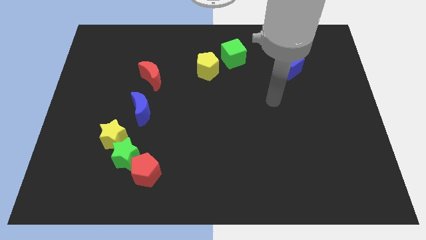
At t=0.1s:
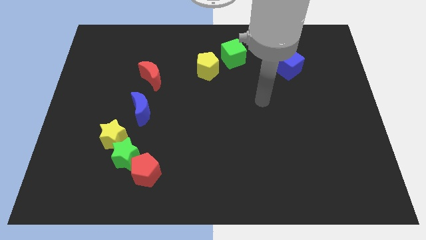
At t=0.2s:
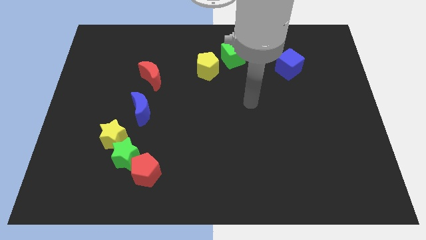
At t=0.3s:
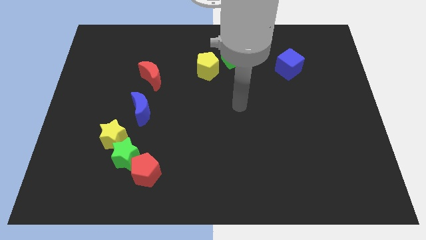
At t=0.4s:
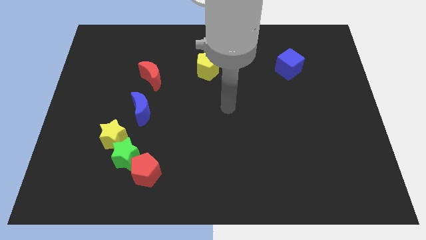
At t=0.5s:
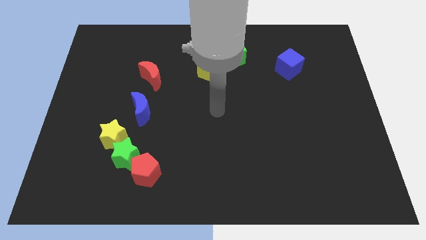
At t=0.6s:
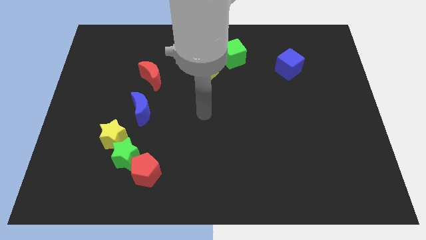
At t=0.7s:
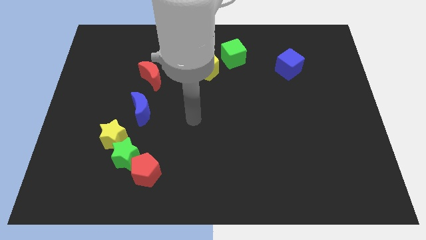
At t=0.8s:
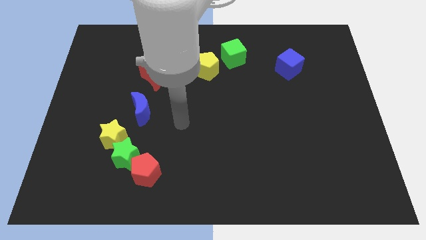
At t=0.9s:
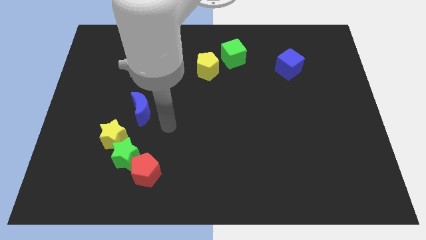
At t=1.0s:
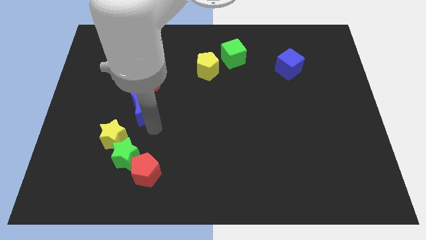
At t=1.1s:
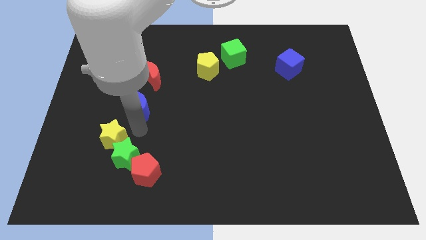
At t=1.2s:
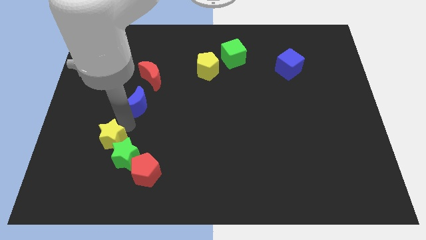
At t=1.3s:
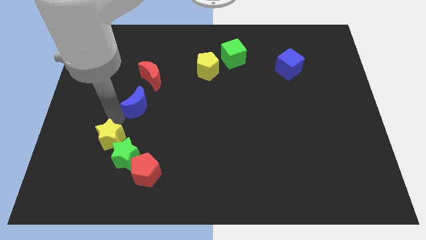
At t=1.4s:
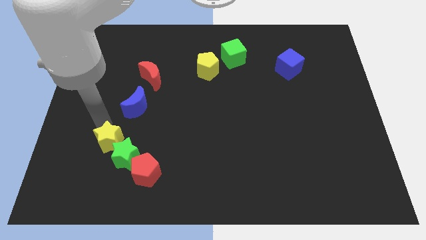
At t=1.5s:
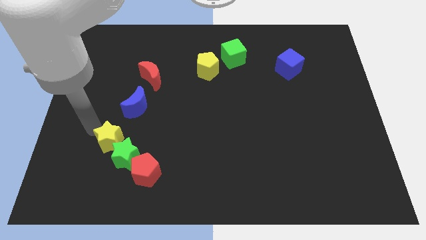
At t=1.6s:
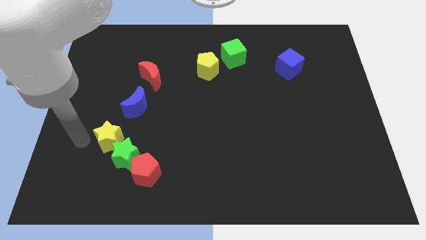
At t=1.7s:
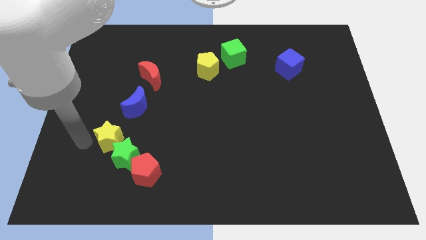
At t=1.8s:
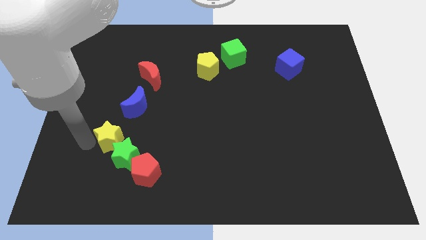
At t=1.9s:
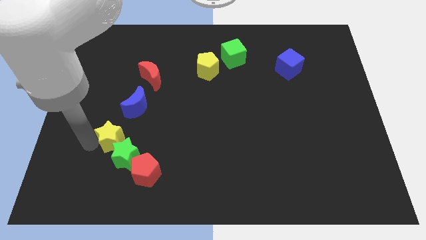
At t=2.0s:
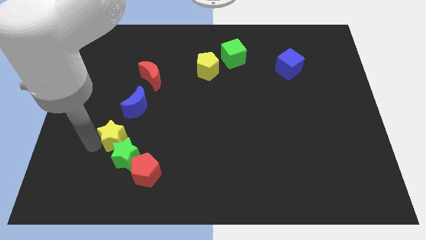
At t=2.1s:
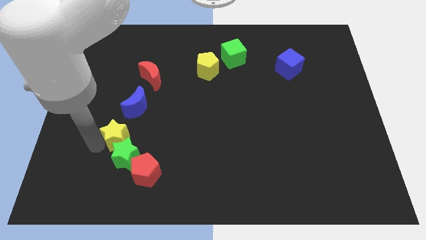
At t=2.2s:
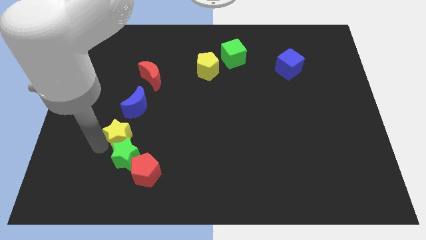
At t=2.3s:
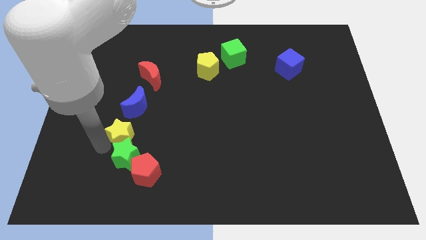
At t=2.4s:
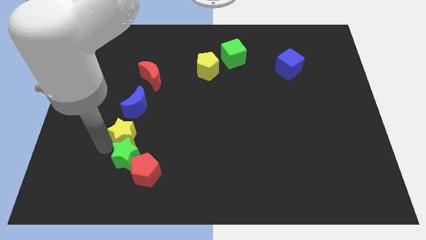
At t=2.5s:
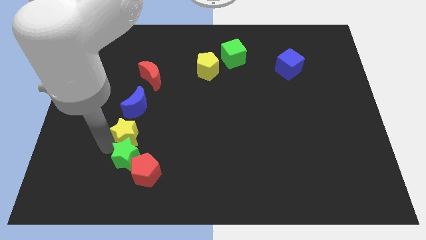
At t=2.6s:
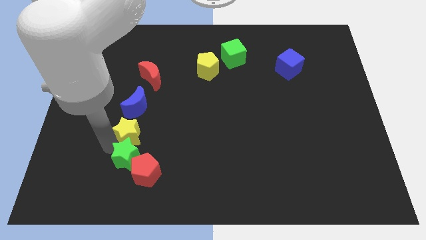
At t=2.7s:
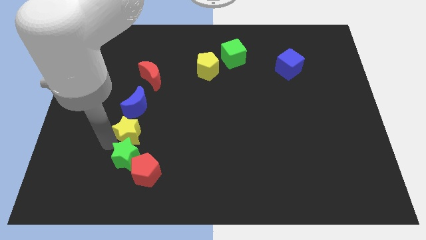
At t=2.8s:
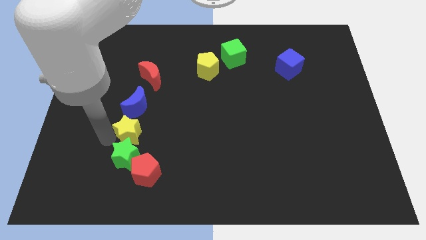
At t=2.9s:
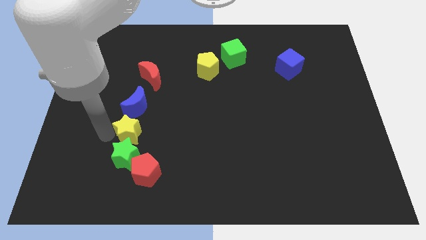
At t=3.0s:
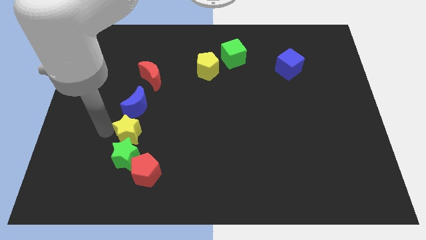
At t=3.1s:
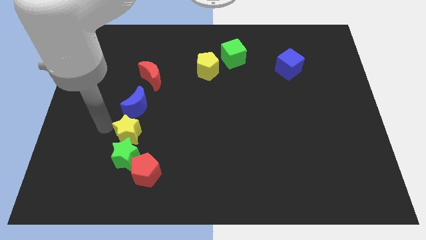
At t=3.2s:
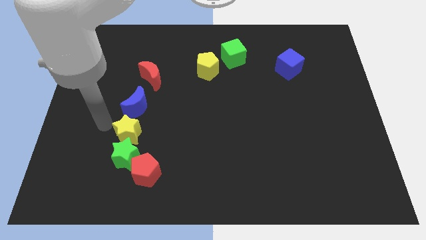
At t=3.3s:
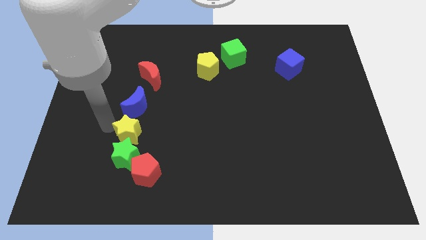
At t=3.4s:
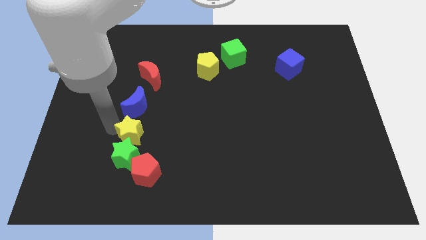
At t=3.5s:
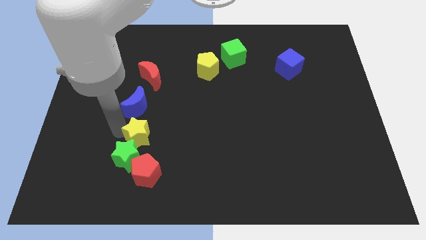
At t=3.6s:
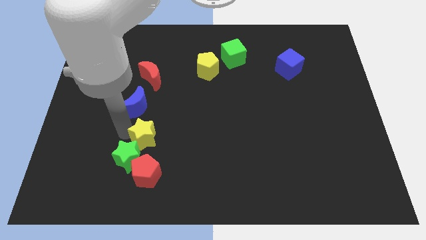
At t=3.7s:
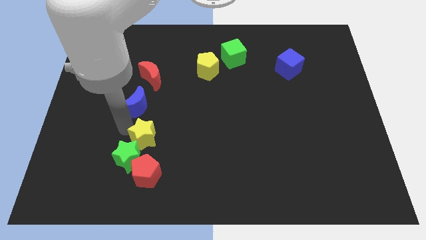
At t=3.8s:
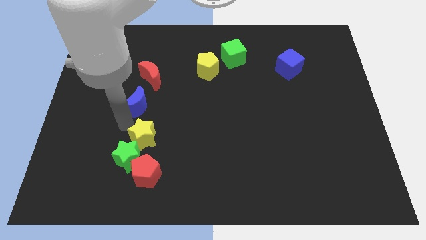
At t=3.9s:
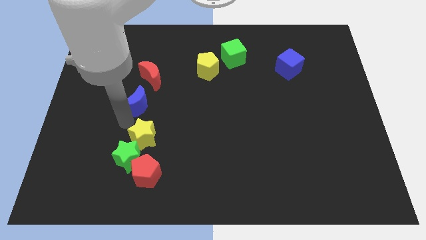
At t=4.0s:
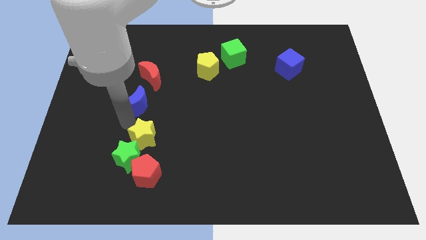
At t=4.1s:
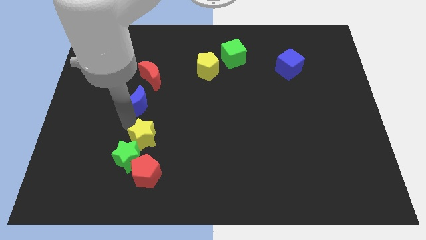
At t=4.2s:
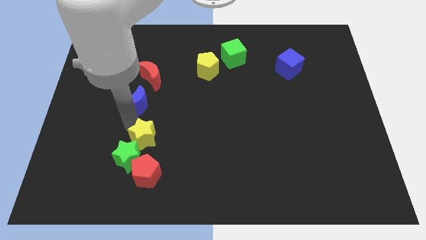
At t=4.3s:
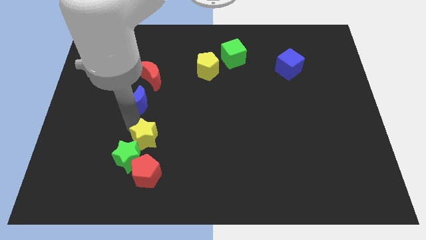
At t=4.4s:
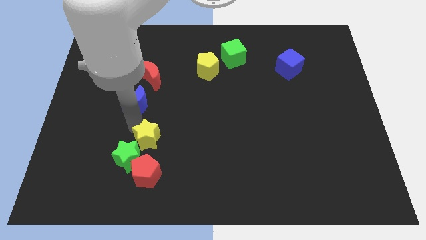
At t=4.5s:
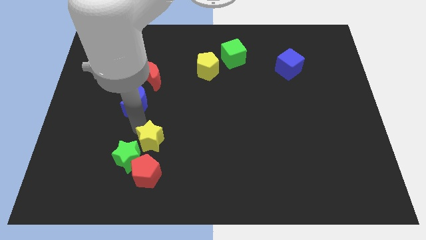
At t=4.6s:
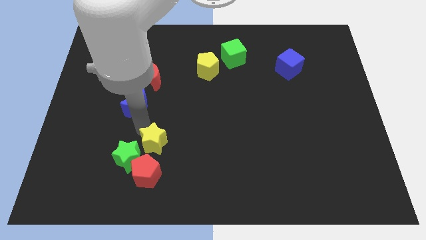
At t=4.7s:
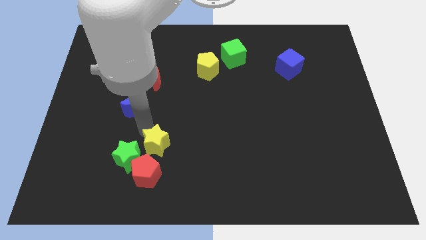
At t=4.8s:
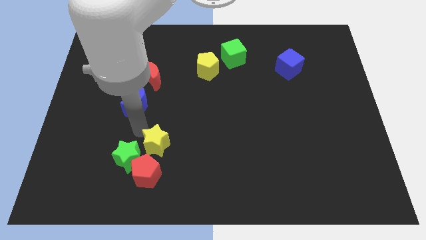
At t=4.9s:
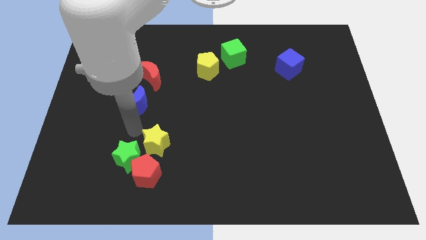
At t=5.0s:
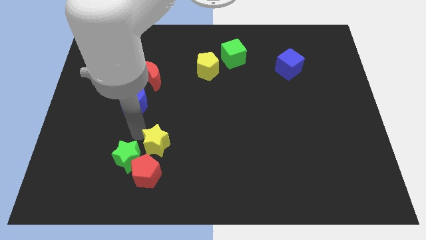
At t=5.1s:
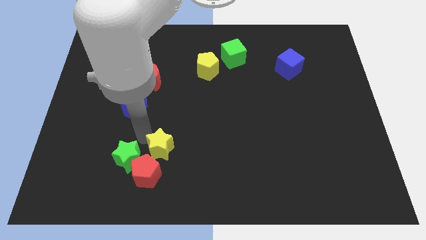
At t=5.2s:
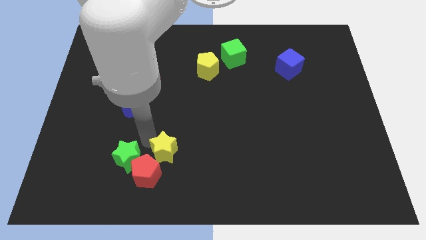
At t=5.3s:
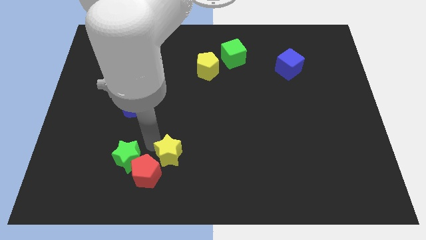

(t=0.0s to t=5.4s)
slide the yellow star just right of the red pentagon

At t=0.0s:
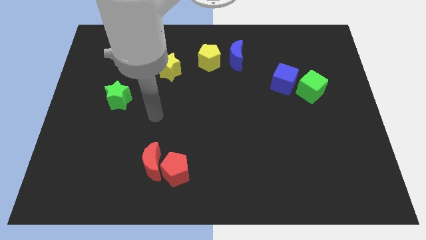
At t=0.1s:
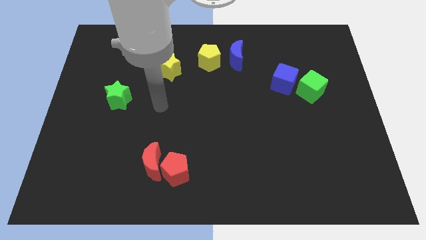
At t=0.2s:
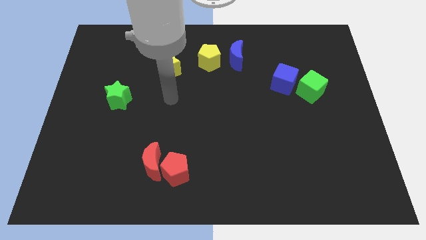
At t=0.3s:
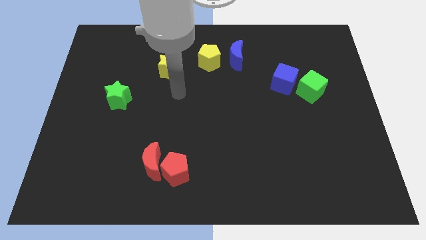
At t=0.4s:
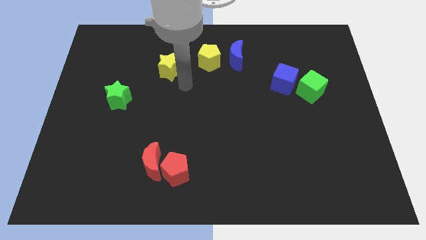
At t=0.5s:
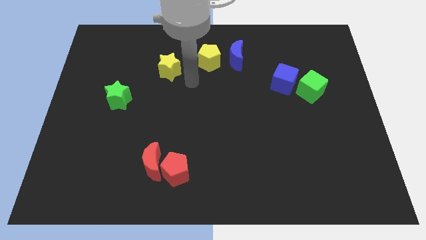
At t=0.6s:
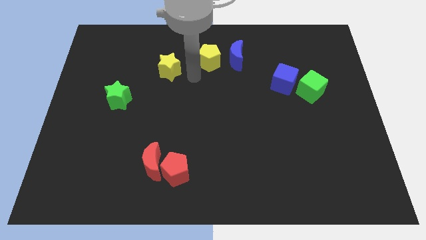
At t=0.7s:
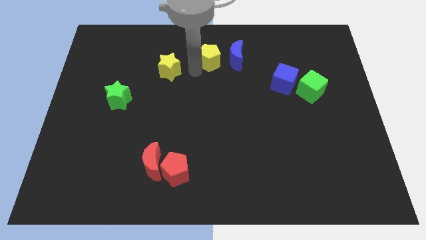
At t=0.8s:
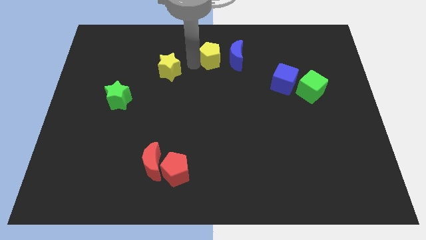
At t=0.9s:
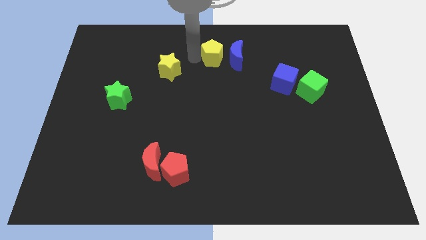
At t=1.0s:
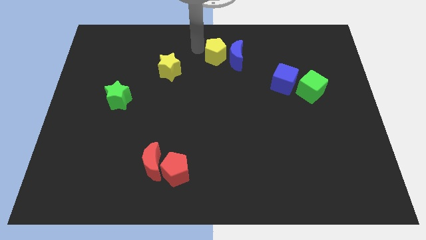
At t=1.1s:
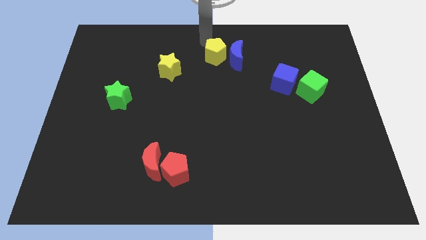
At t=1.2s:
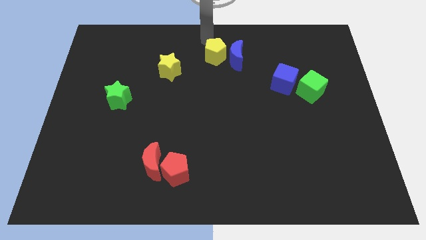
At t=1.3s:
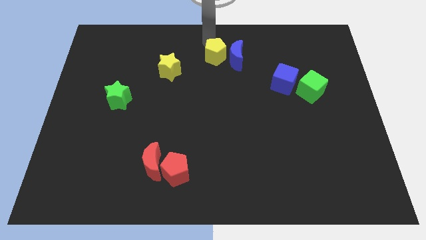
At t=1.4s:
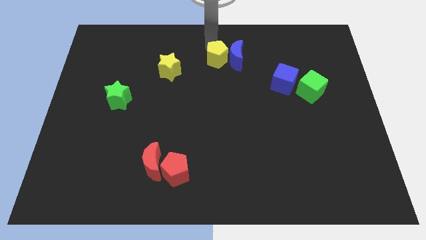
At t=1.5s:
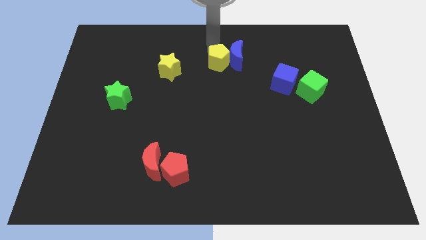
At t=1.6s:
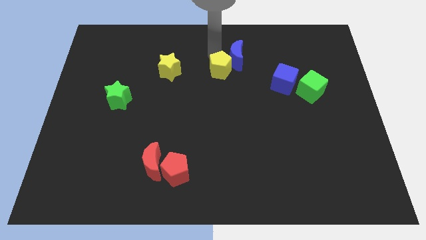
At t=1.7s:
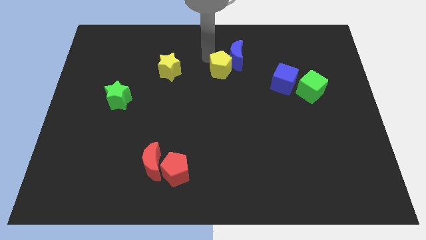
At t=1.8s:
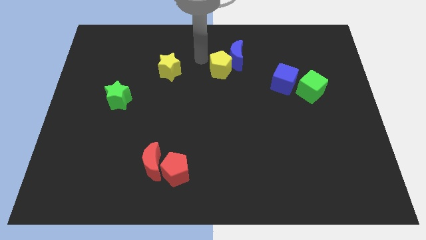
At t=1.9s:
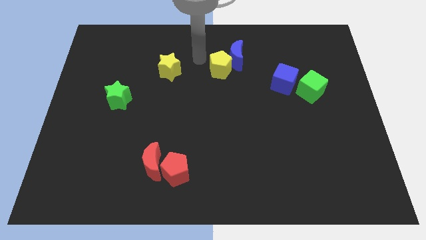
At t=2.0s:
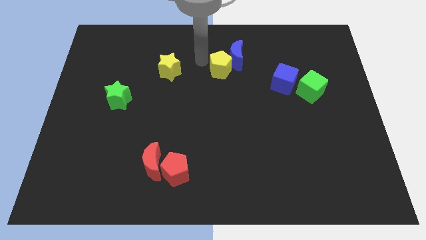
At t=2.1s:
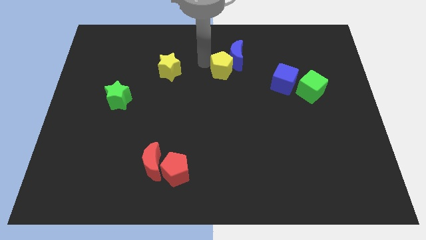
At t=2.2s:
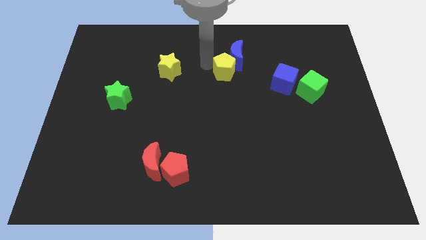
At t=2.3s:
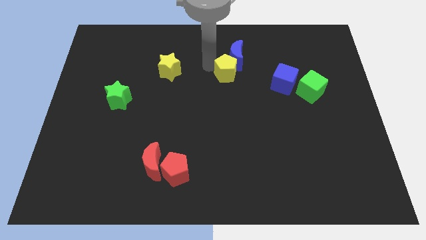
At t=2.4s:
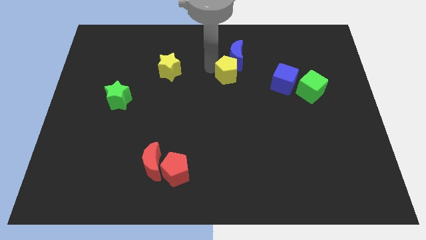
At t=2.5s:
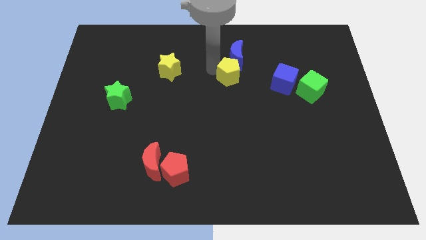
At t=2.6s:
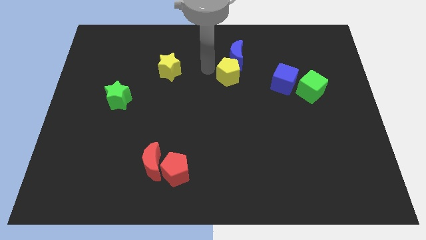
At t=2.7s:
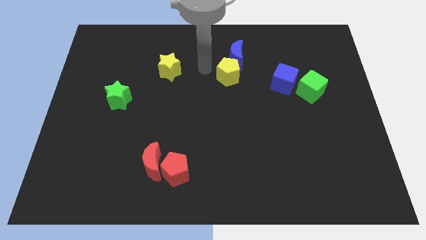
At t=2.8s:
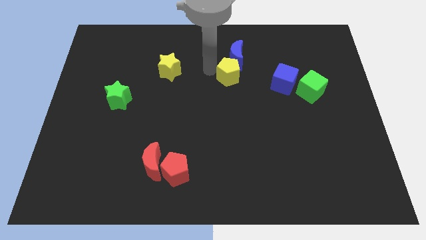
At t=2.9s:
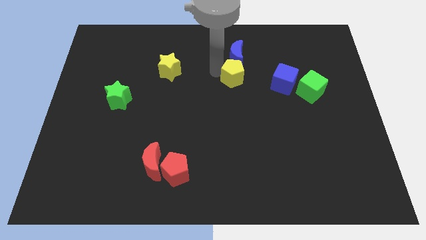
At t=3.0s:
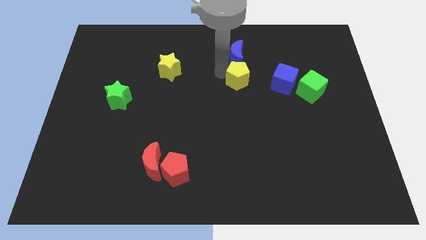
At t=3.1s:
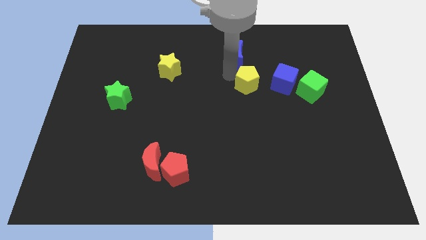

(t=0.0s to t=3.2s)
move the yellow pentagon left of the green cube
